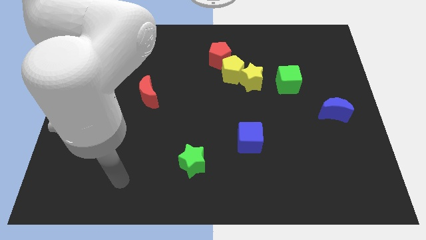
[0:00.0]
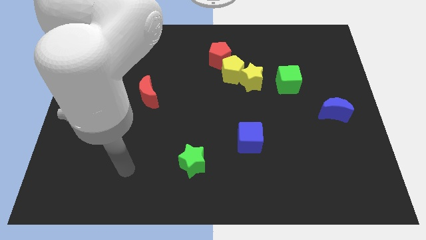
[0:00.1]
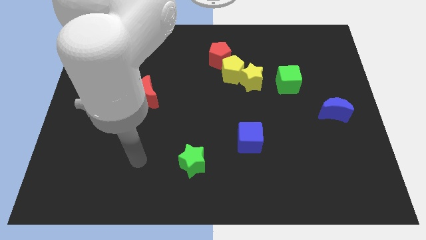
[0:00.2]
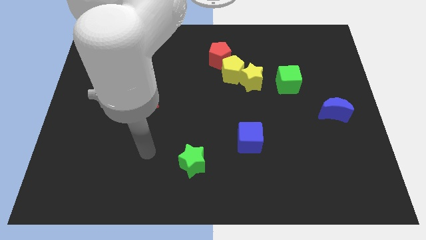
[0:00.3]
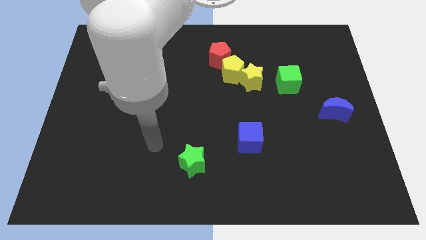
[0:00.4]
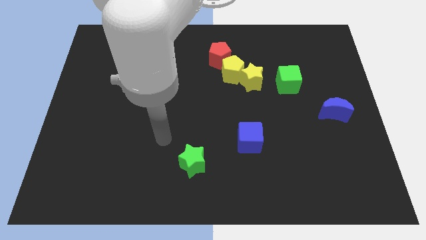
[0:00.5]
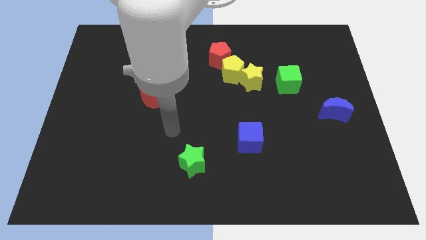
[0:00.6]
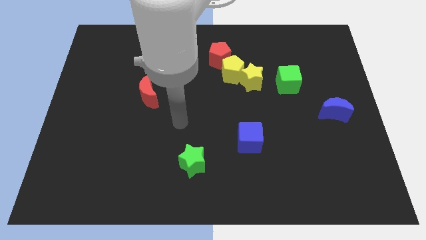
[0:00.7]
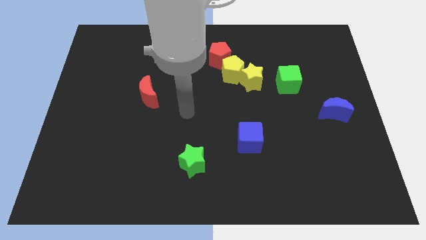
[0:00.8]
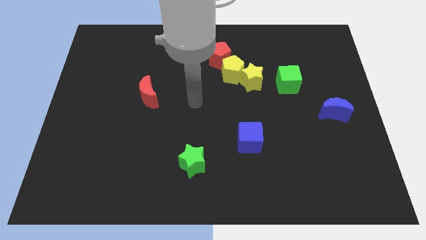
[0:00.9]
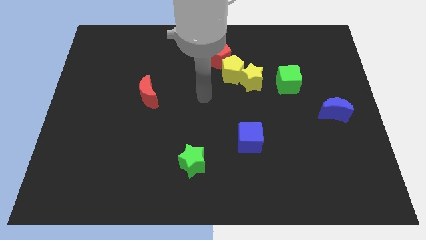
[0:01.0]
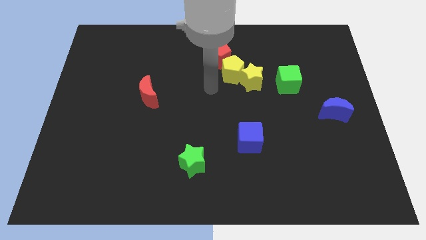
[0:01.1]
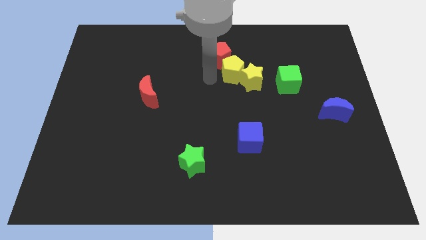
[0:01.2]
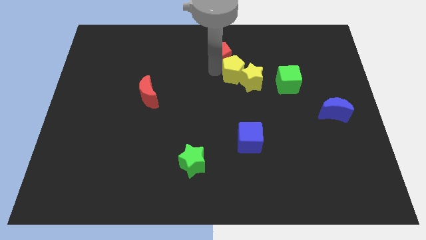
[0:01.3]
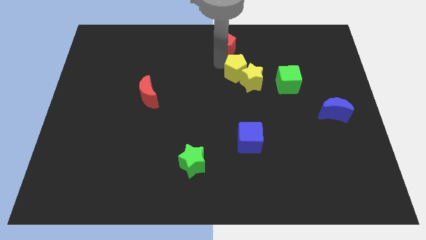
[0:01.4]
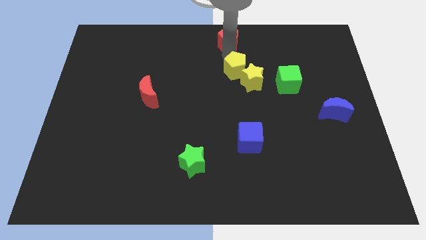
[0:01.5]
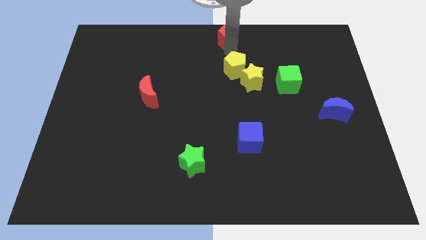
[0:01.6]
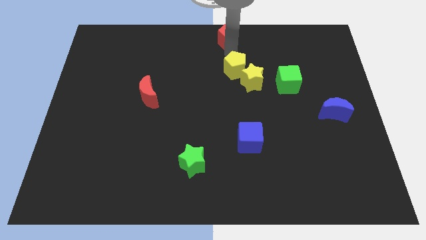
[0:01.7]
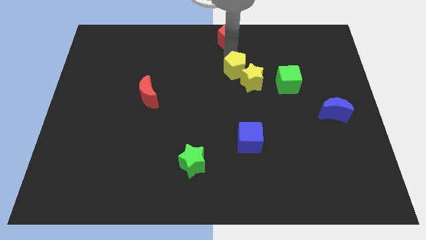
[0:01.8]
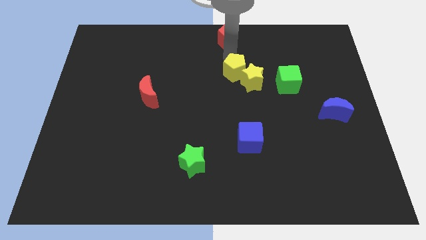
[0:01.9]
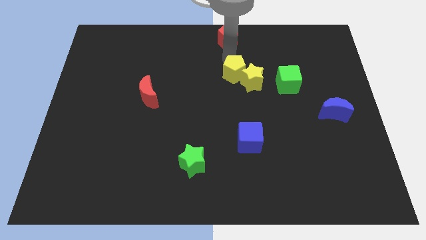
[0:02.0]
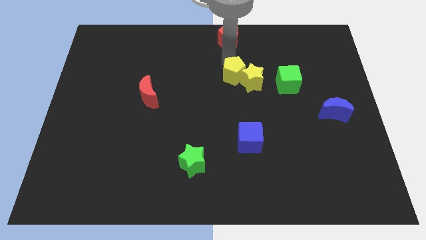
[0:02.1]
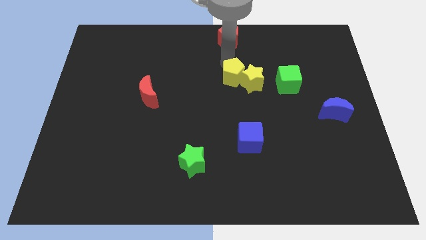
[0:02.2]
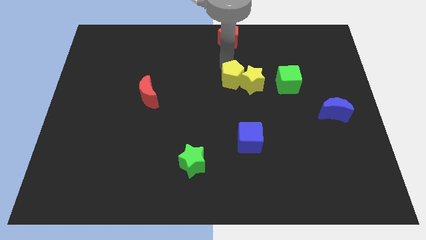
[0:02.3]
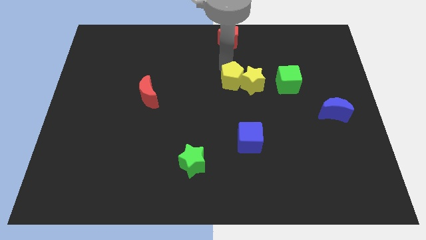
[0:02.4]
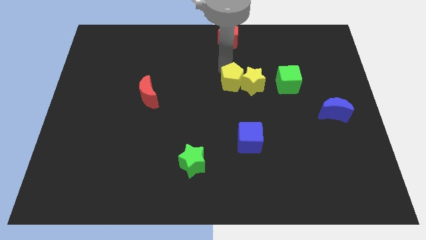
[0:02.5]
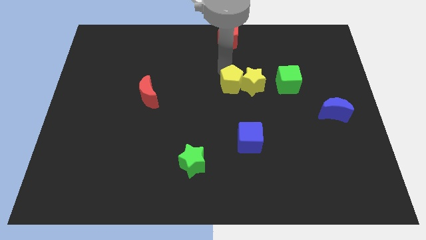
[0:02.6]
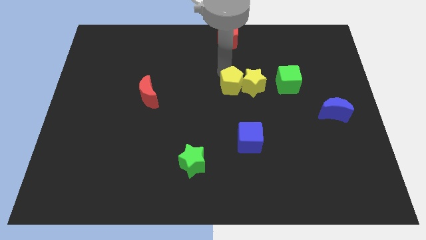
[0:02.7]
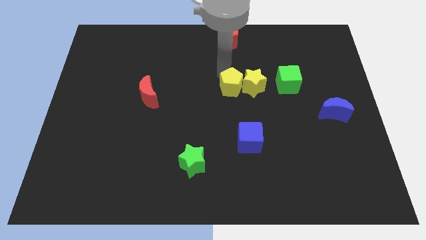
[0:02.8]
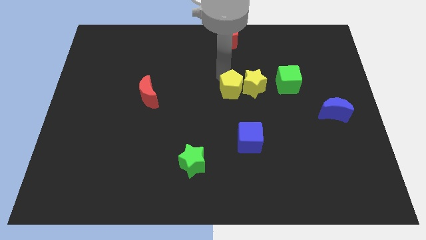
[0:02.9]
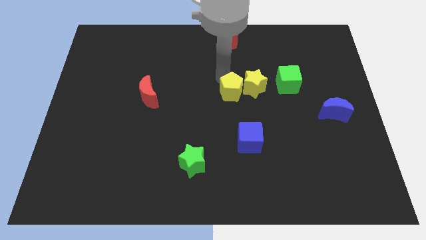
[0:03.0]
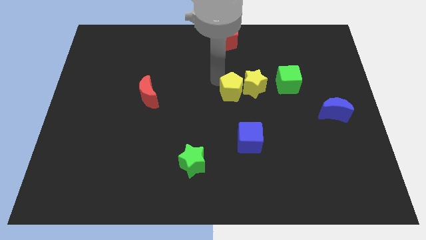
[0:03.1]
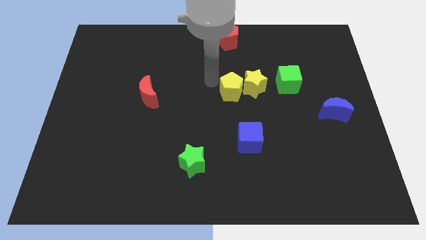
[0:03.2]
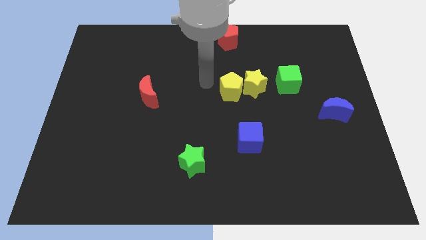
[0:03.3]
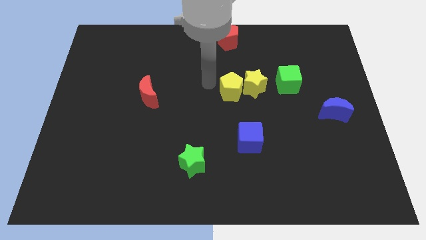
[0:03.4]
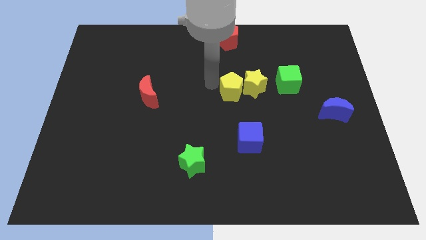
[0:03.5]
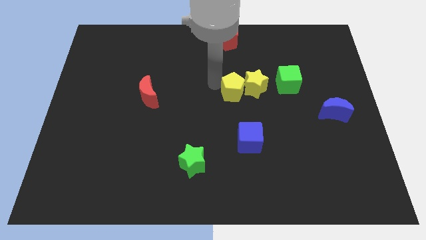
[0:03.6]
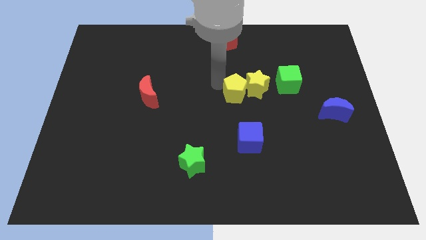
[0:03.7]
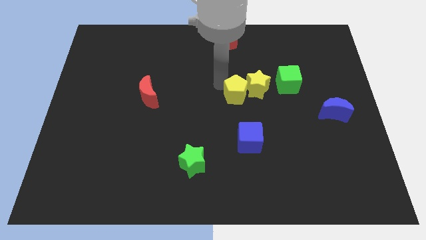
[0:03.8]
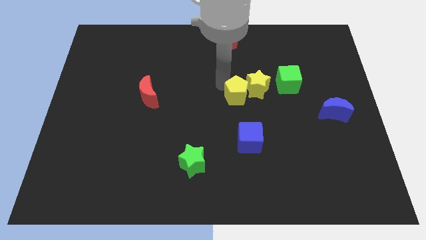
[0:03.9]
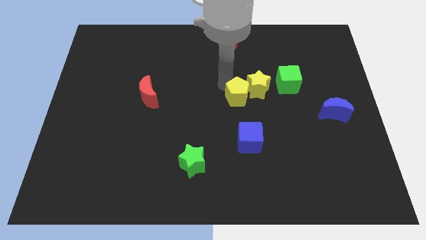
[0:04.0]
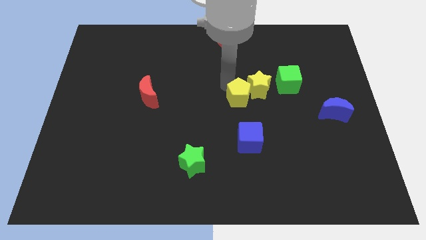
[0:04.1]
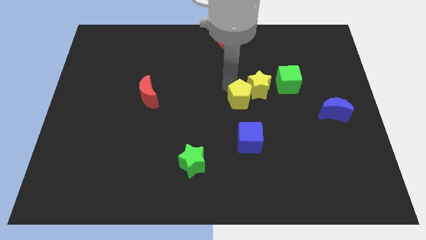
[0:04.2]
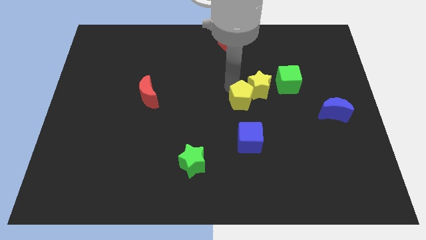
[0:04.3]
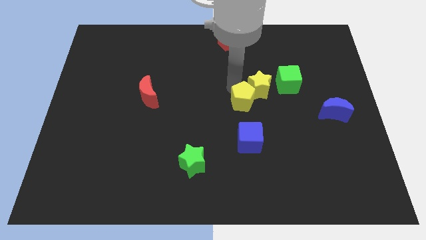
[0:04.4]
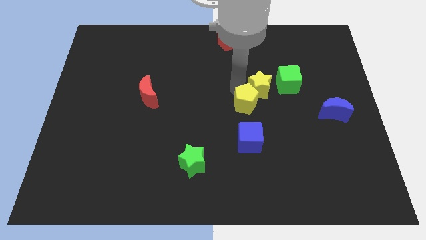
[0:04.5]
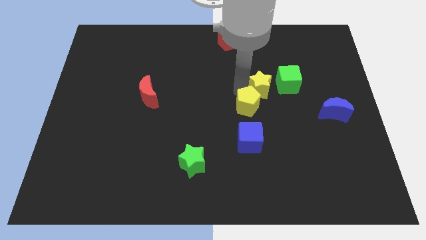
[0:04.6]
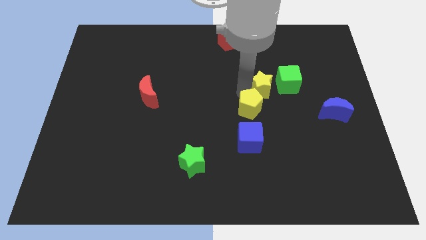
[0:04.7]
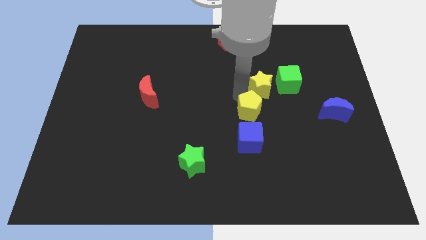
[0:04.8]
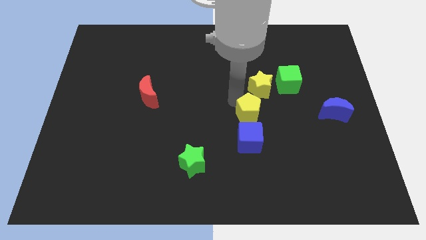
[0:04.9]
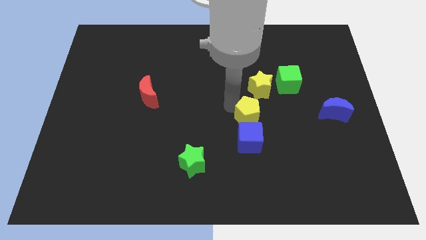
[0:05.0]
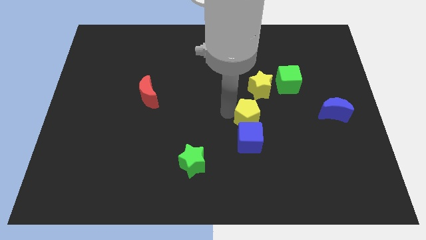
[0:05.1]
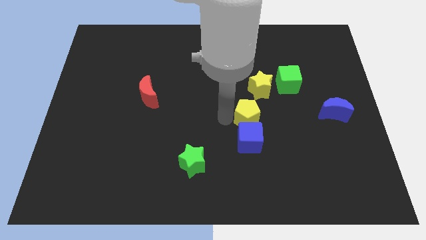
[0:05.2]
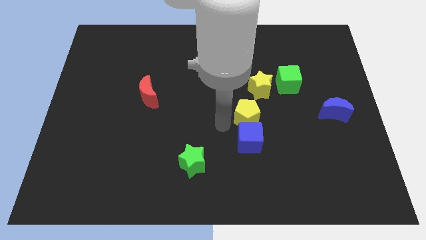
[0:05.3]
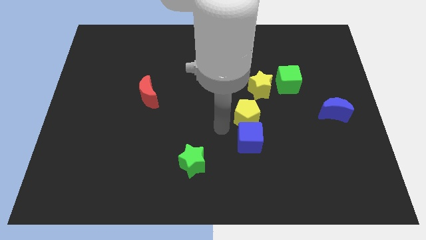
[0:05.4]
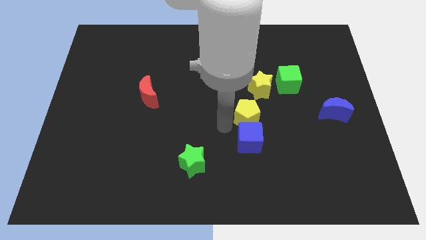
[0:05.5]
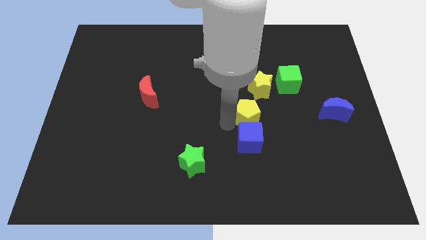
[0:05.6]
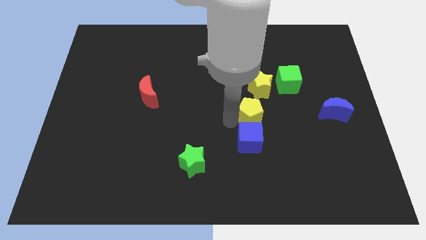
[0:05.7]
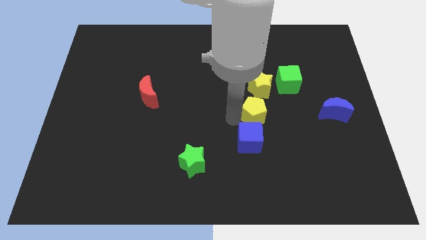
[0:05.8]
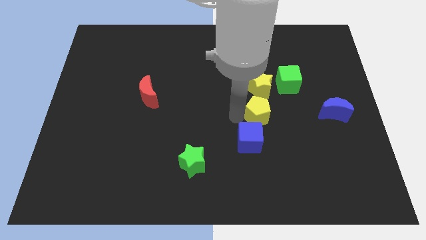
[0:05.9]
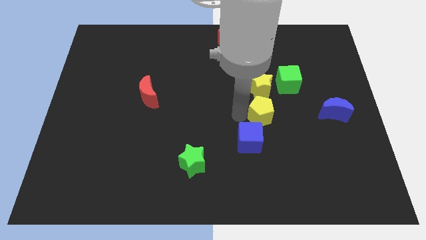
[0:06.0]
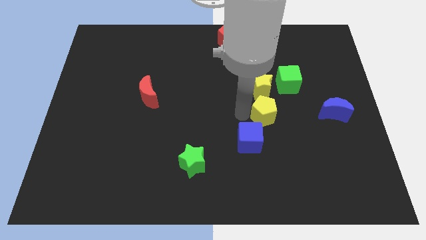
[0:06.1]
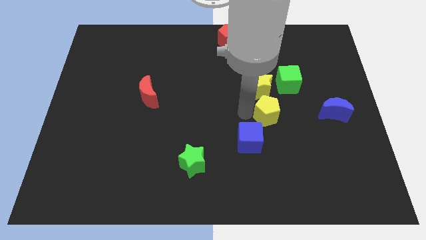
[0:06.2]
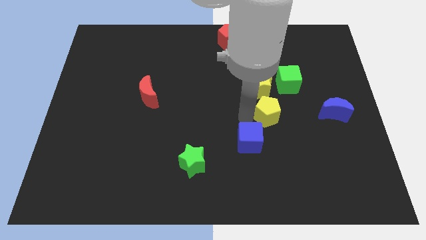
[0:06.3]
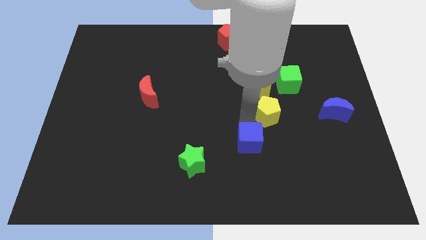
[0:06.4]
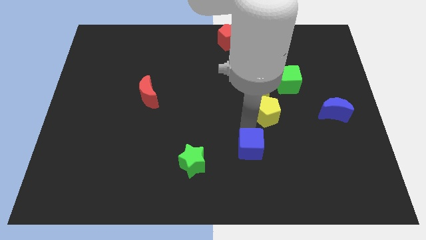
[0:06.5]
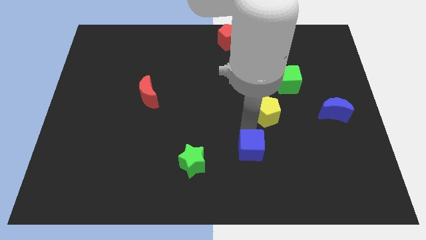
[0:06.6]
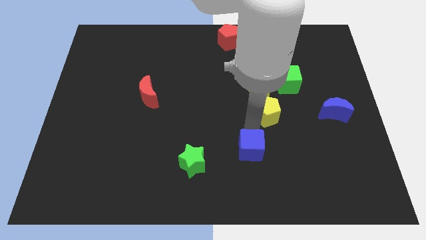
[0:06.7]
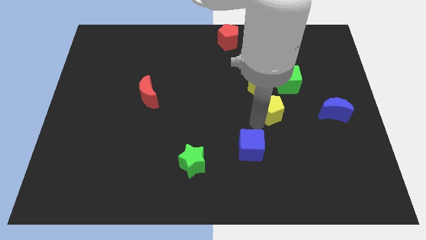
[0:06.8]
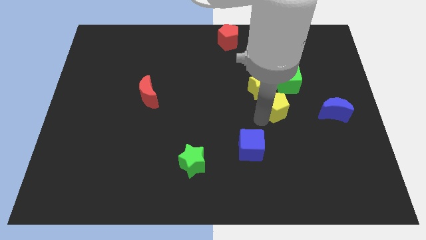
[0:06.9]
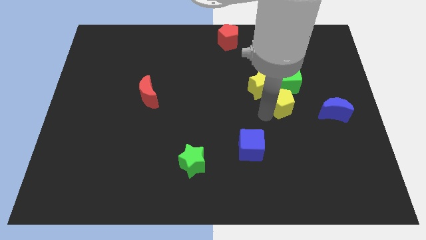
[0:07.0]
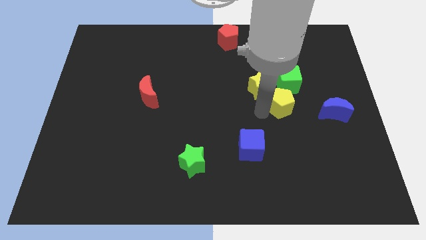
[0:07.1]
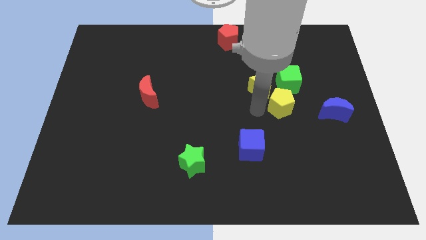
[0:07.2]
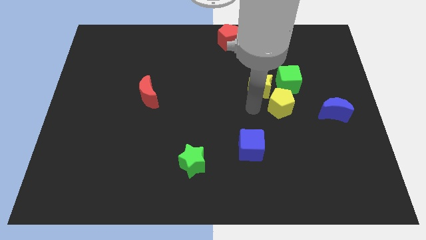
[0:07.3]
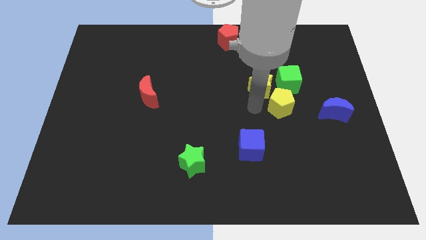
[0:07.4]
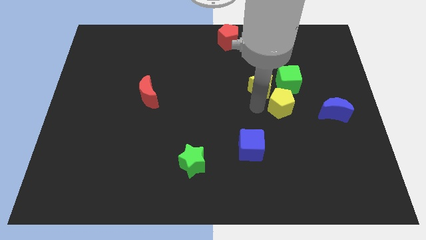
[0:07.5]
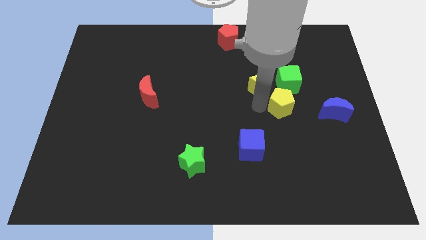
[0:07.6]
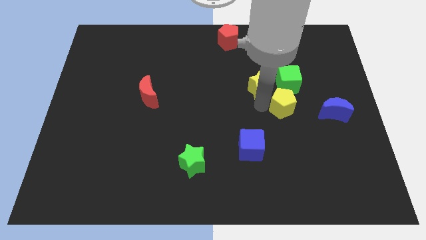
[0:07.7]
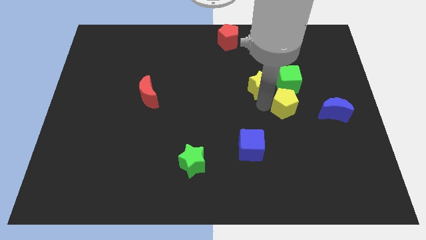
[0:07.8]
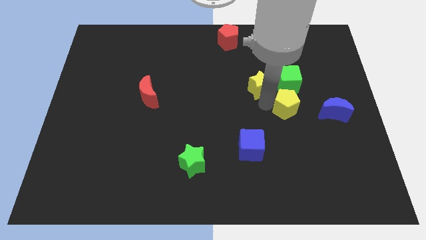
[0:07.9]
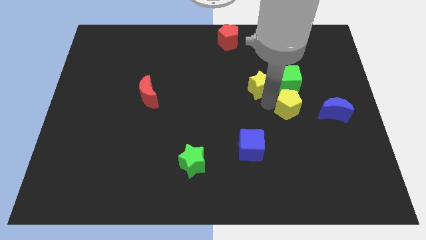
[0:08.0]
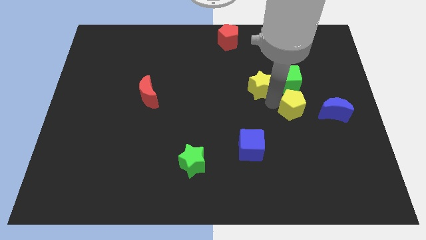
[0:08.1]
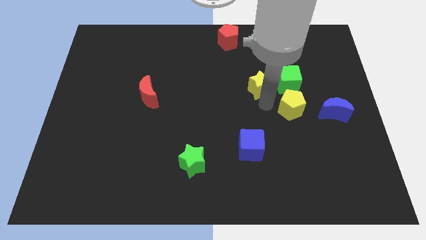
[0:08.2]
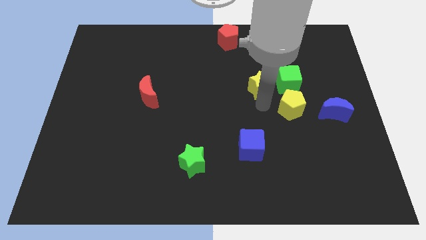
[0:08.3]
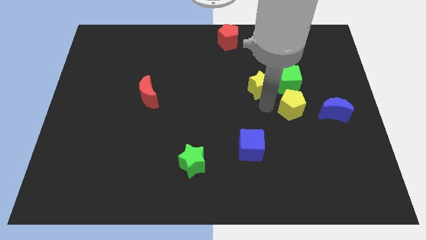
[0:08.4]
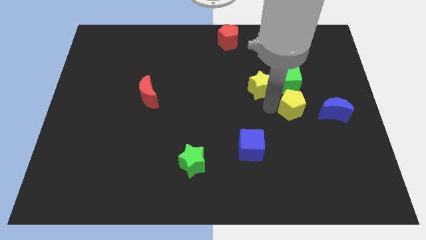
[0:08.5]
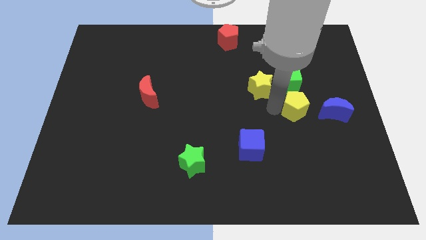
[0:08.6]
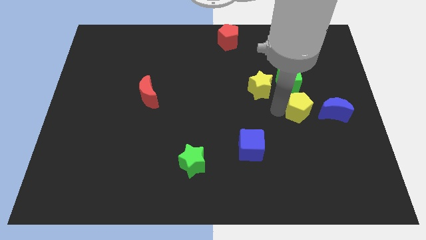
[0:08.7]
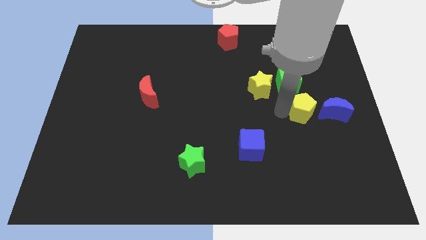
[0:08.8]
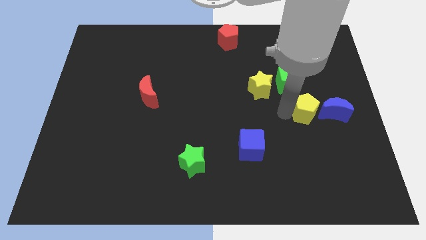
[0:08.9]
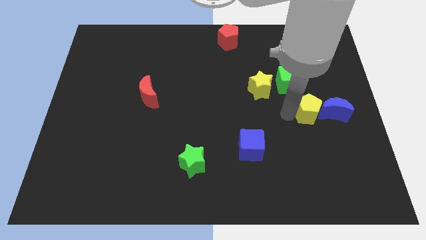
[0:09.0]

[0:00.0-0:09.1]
push the yellow pentagon next to the blue moon
